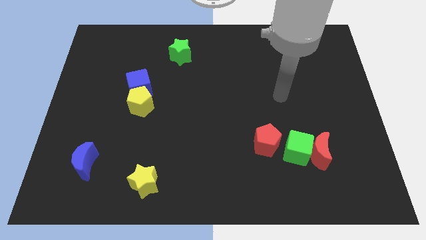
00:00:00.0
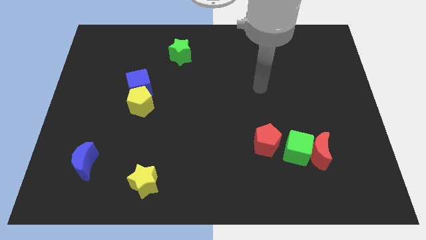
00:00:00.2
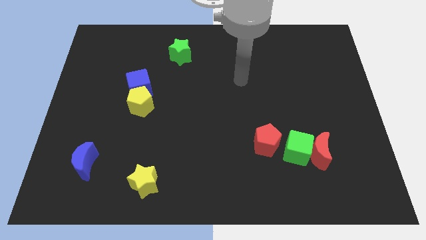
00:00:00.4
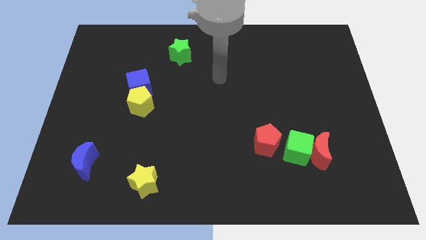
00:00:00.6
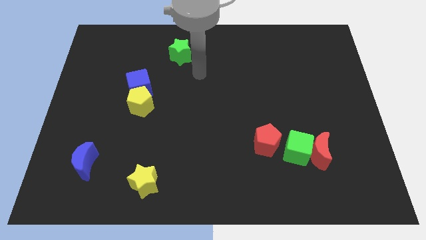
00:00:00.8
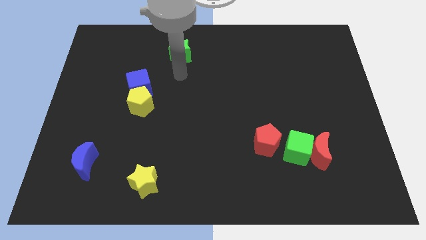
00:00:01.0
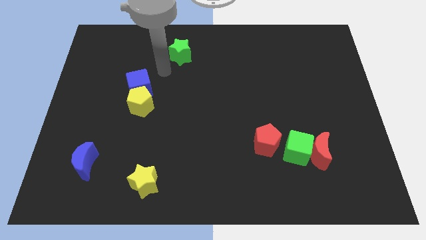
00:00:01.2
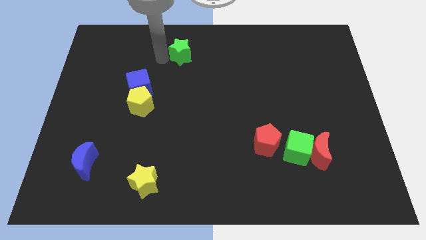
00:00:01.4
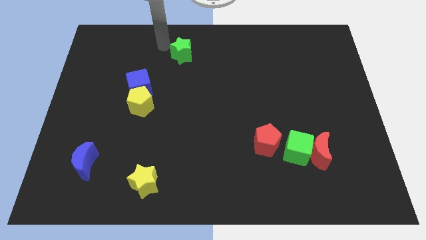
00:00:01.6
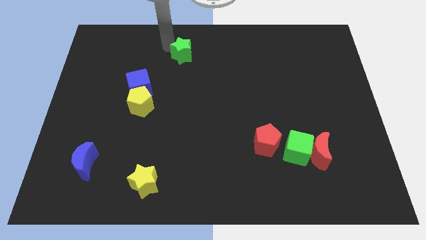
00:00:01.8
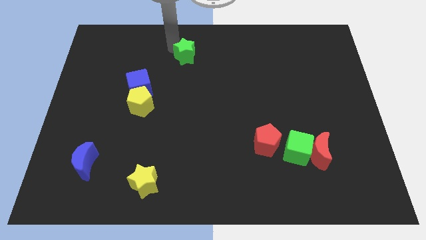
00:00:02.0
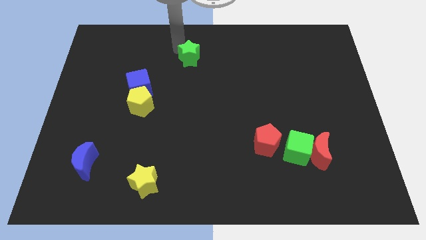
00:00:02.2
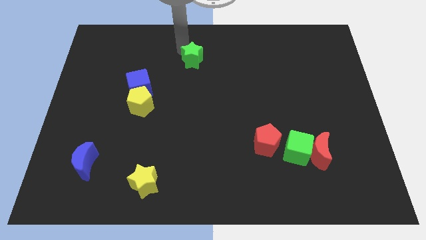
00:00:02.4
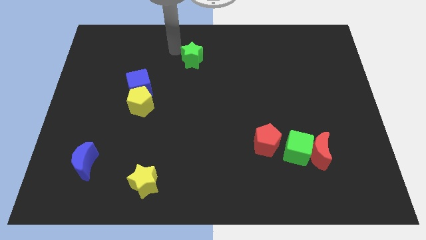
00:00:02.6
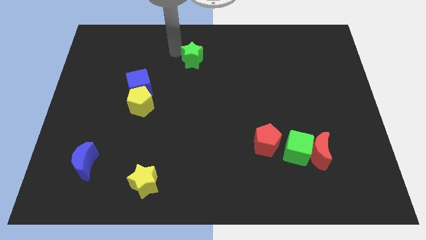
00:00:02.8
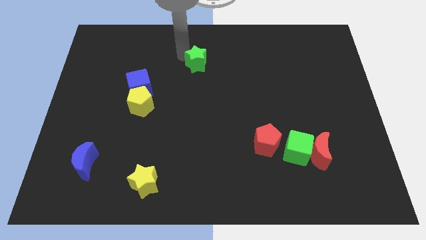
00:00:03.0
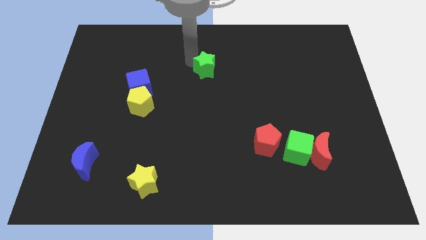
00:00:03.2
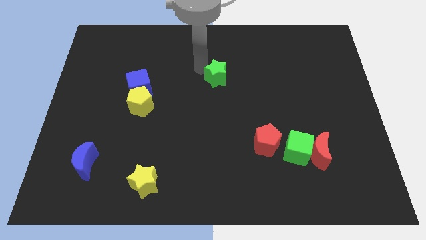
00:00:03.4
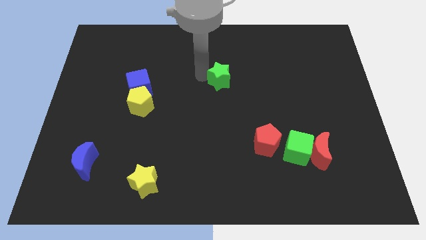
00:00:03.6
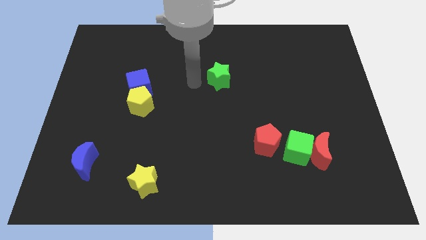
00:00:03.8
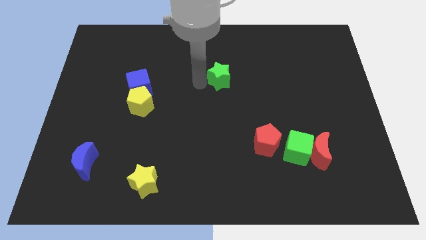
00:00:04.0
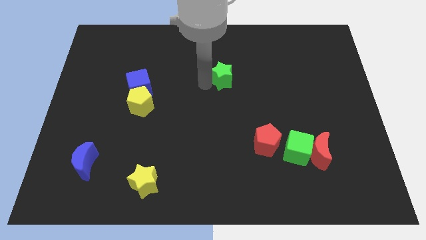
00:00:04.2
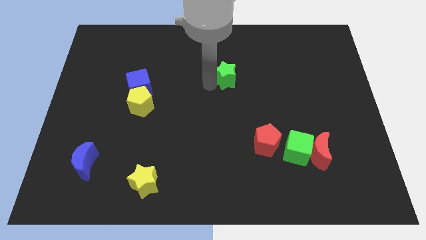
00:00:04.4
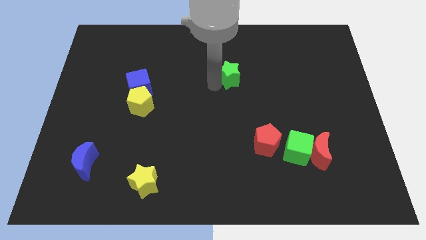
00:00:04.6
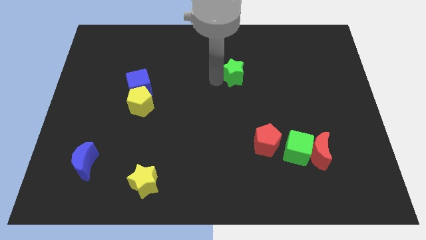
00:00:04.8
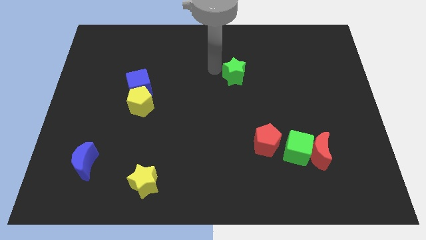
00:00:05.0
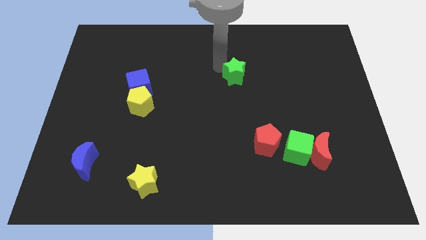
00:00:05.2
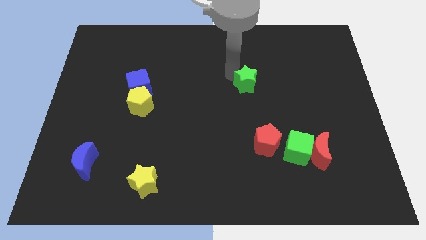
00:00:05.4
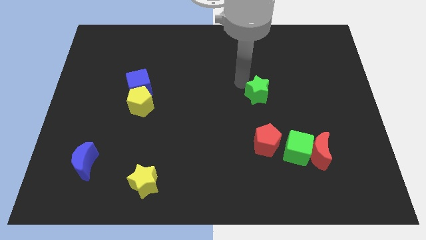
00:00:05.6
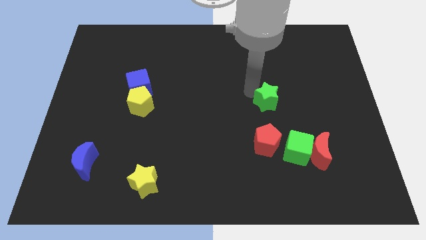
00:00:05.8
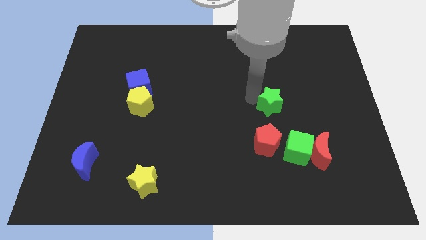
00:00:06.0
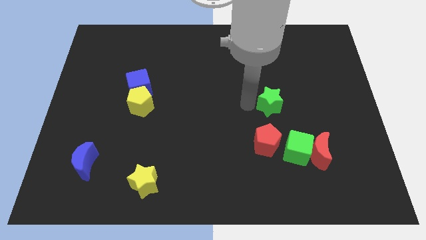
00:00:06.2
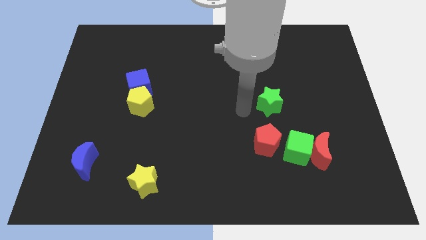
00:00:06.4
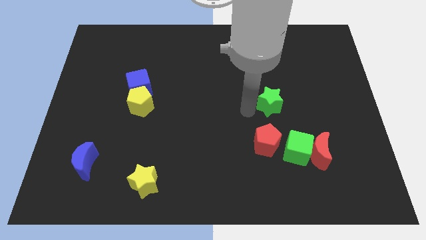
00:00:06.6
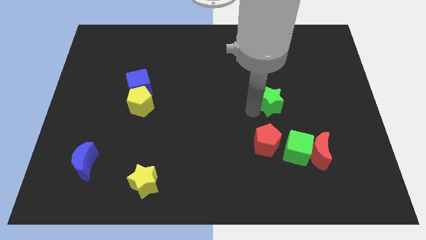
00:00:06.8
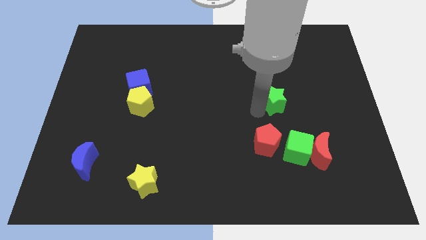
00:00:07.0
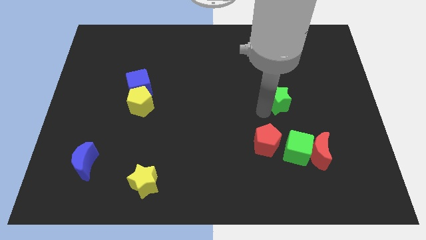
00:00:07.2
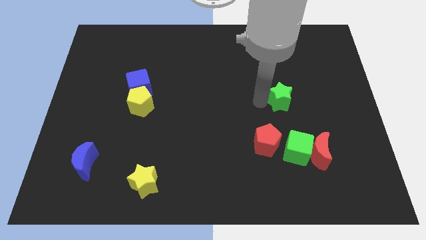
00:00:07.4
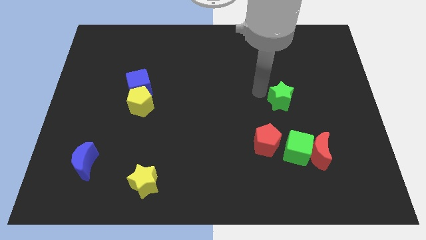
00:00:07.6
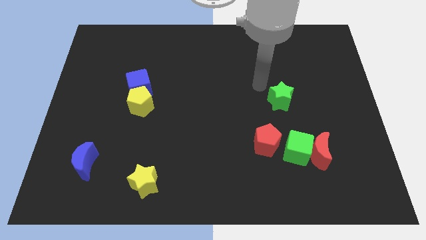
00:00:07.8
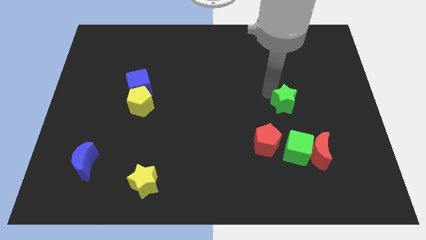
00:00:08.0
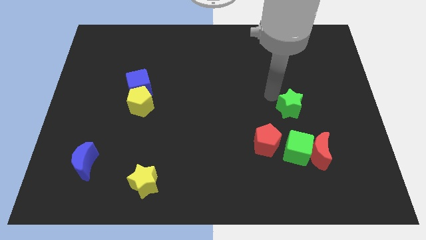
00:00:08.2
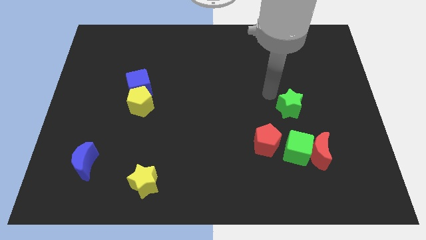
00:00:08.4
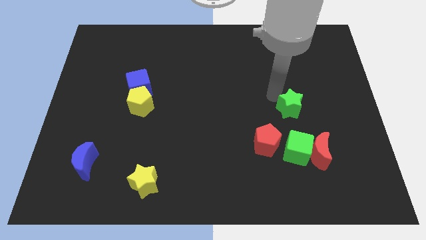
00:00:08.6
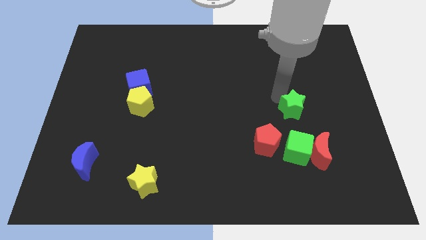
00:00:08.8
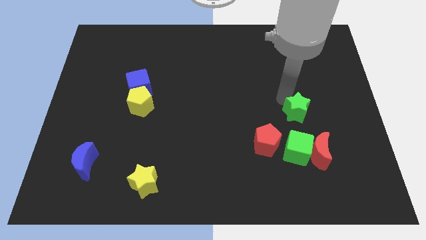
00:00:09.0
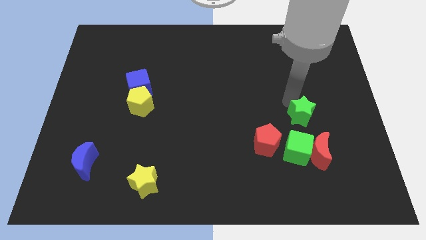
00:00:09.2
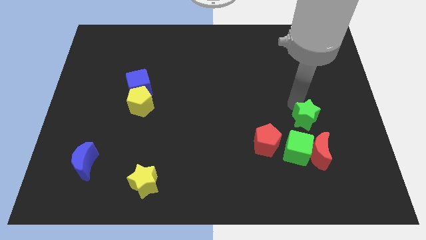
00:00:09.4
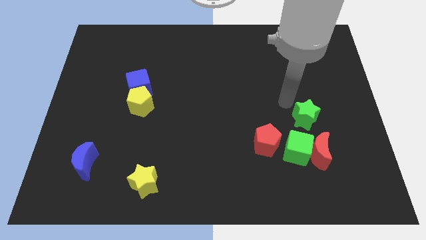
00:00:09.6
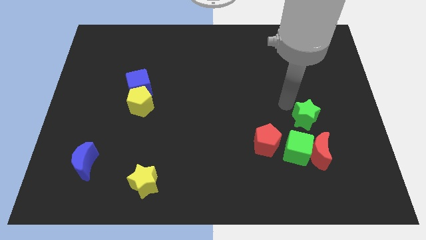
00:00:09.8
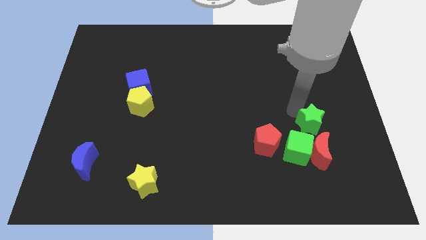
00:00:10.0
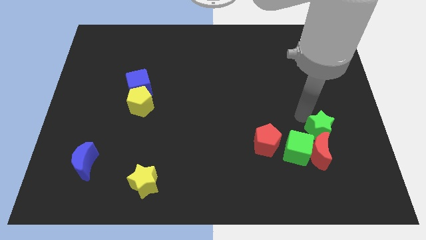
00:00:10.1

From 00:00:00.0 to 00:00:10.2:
move the green star to the red moon

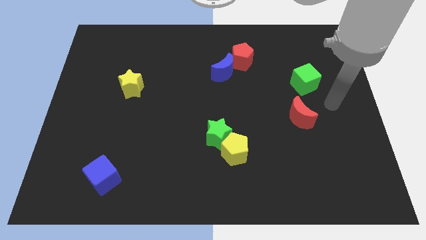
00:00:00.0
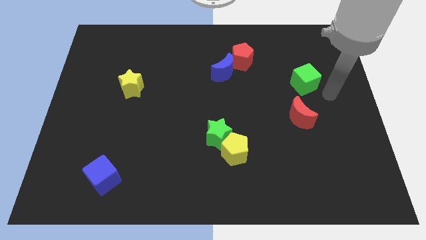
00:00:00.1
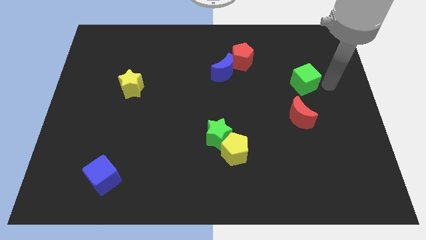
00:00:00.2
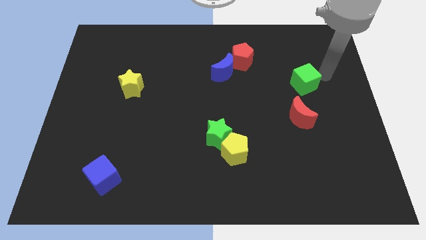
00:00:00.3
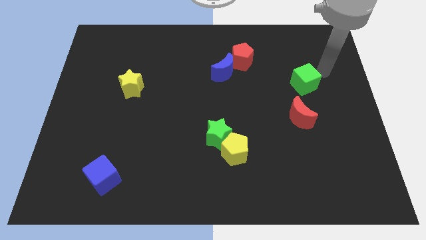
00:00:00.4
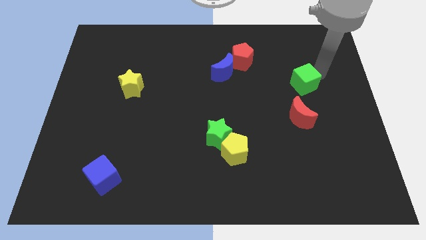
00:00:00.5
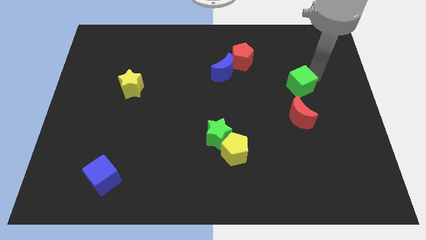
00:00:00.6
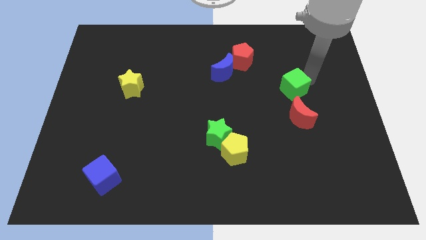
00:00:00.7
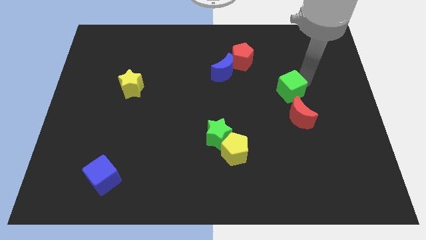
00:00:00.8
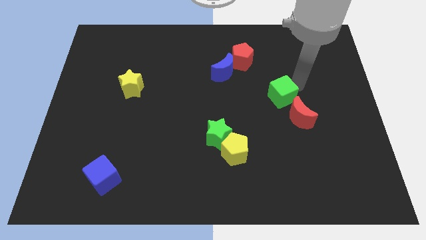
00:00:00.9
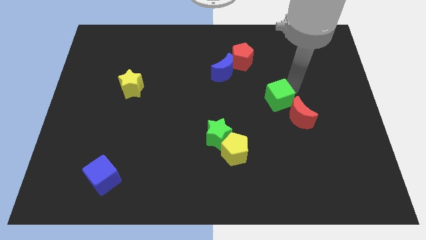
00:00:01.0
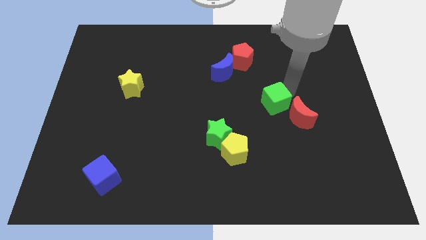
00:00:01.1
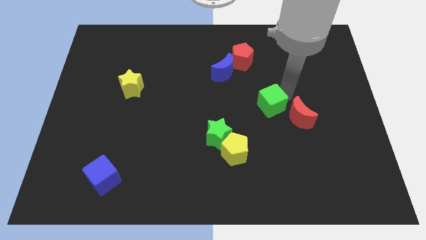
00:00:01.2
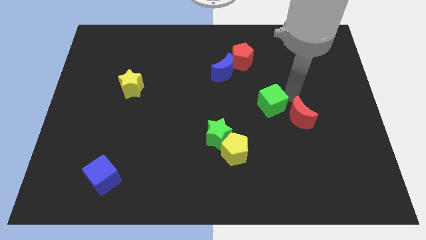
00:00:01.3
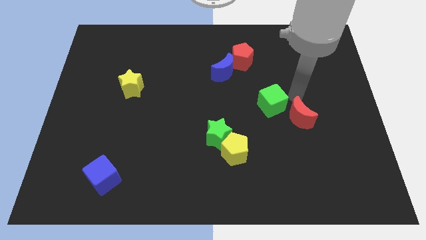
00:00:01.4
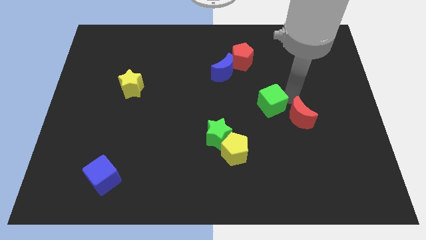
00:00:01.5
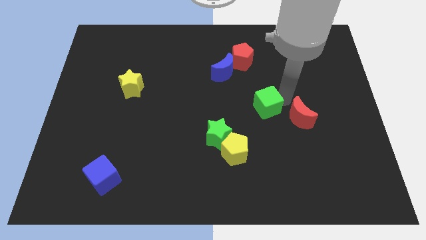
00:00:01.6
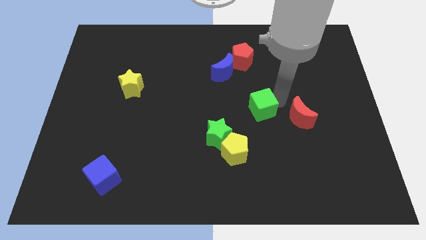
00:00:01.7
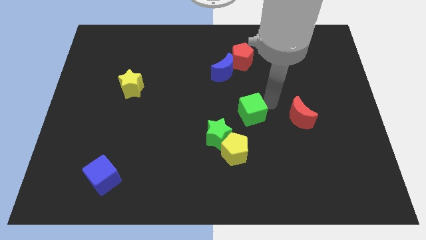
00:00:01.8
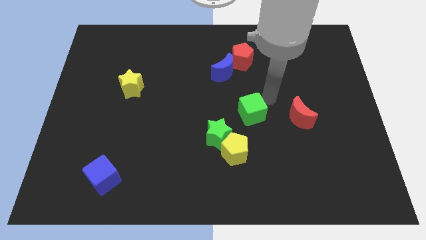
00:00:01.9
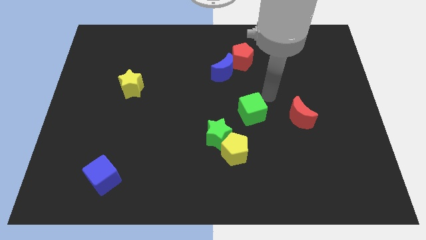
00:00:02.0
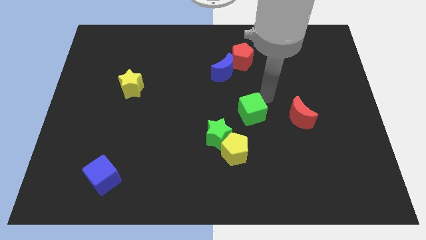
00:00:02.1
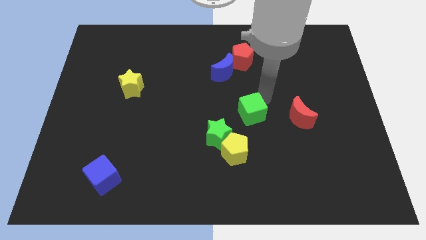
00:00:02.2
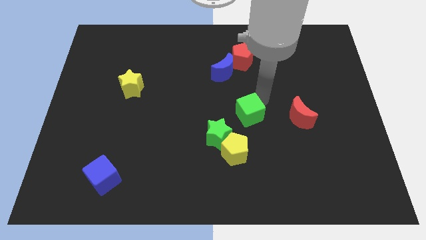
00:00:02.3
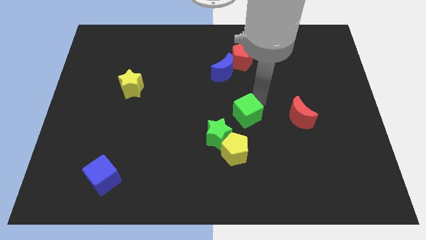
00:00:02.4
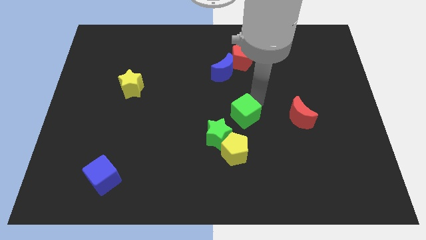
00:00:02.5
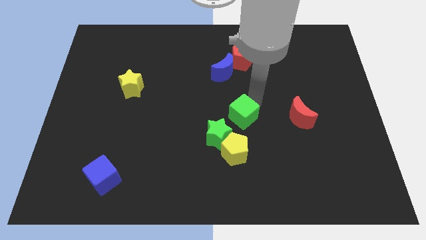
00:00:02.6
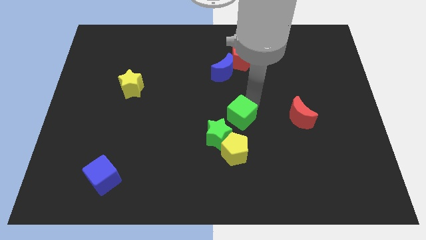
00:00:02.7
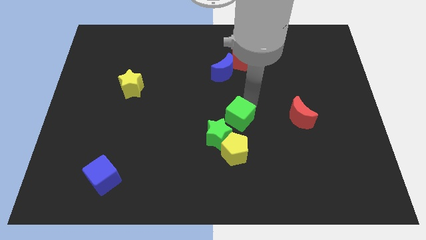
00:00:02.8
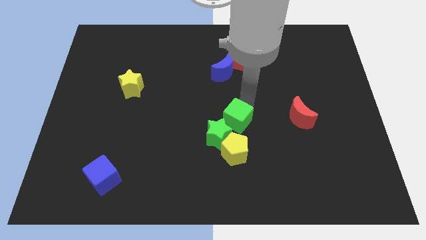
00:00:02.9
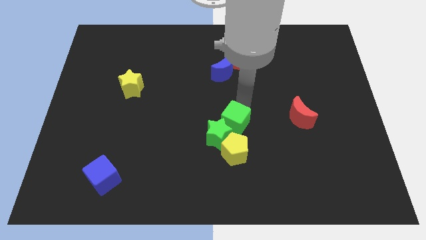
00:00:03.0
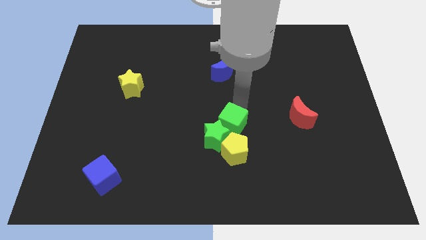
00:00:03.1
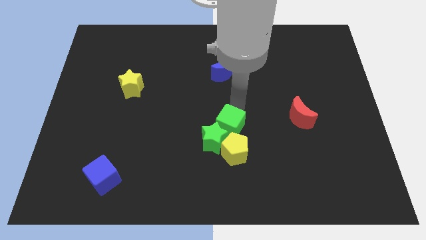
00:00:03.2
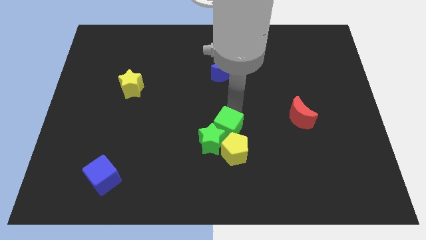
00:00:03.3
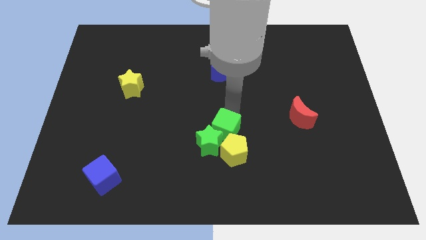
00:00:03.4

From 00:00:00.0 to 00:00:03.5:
push the green cube close to the yellow pentagon
